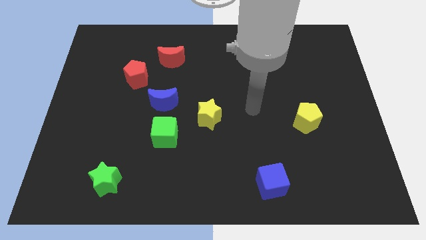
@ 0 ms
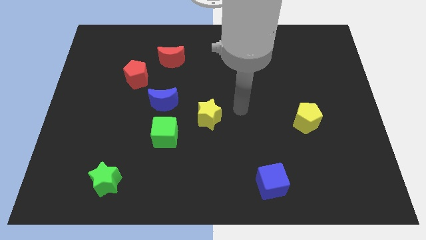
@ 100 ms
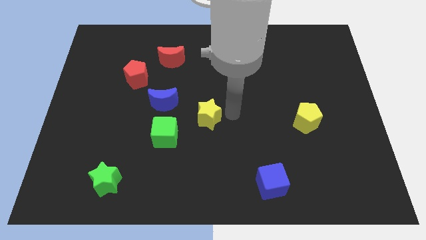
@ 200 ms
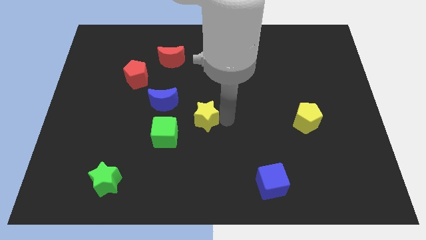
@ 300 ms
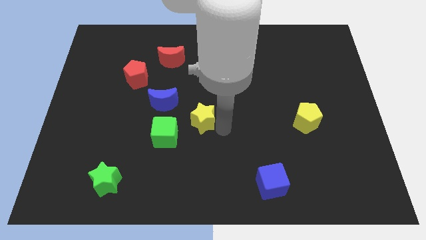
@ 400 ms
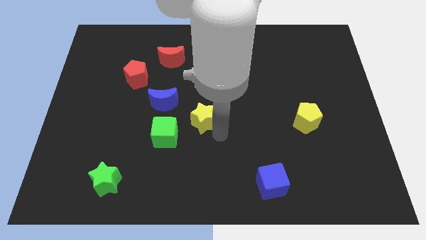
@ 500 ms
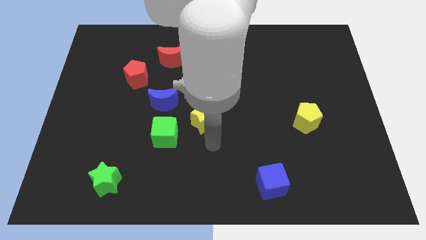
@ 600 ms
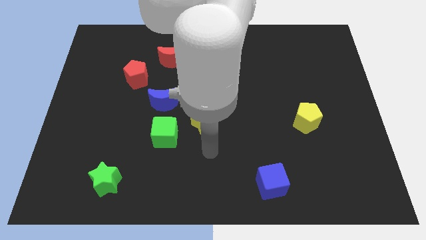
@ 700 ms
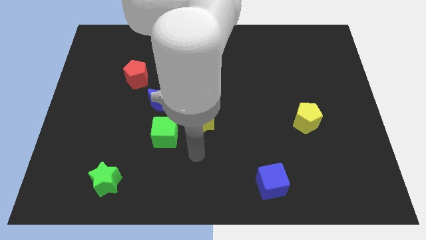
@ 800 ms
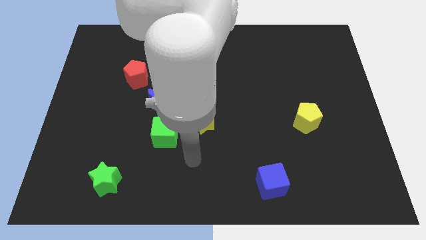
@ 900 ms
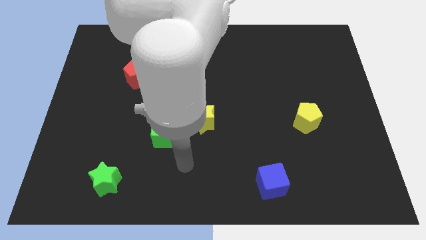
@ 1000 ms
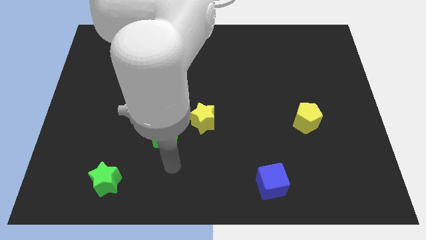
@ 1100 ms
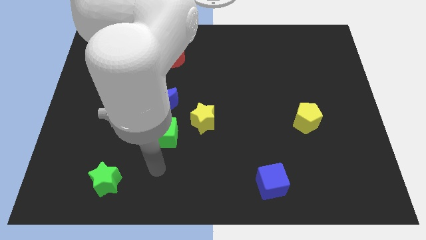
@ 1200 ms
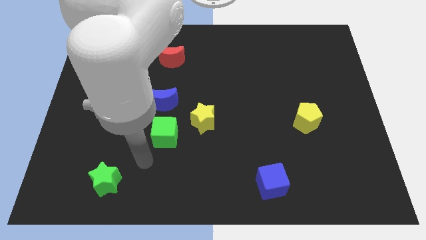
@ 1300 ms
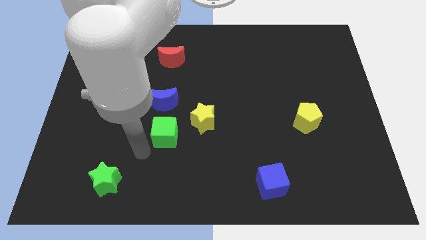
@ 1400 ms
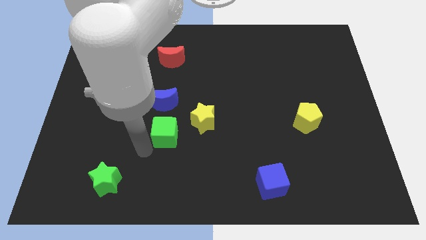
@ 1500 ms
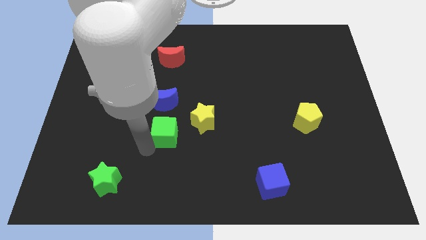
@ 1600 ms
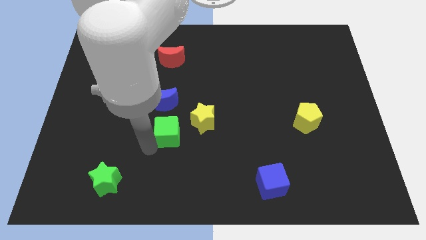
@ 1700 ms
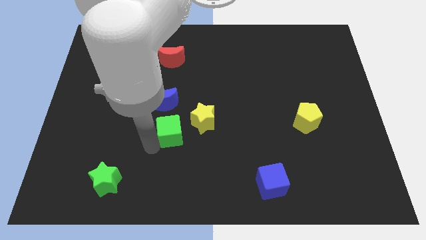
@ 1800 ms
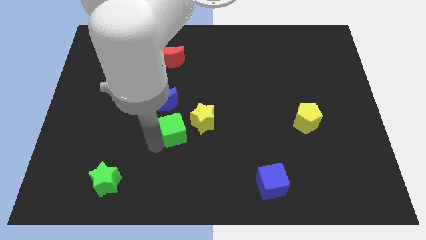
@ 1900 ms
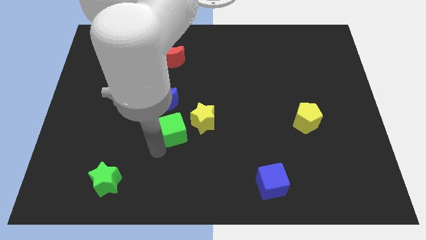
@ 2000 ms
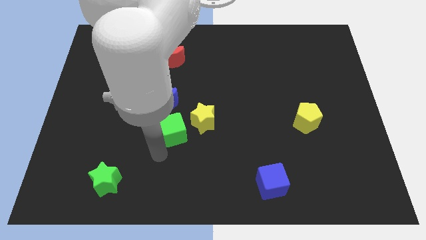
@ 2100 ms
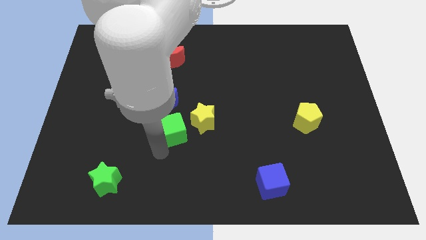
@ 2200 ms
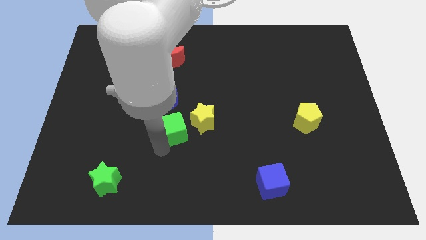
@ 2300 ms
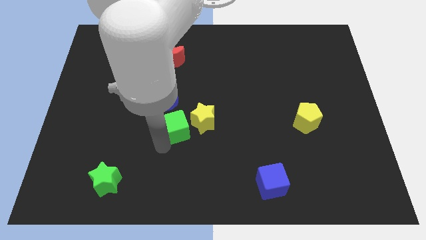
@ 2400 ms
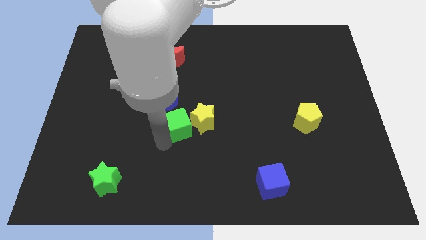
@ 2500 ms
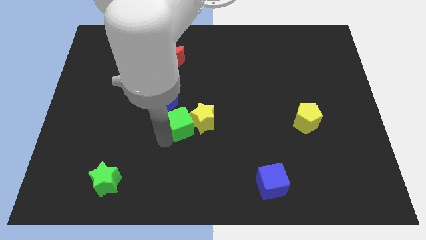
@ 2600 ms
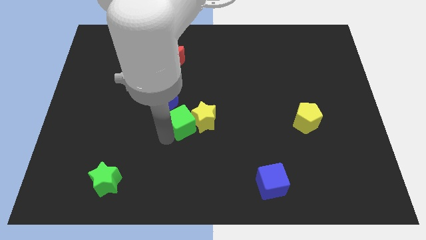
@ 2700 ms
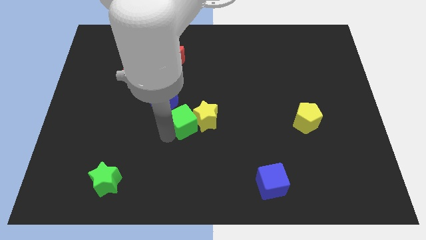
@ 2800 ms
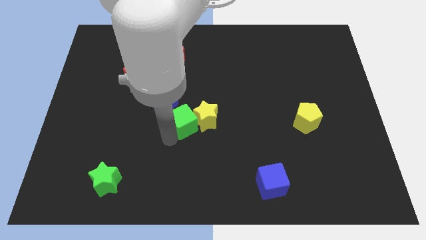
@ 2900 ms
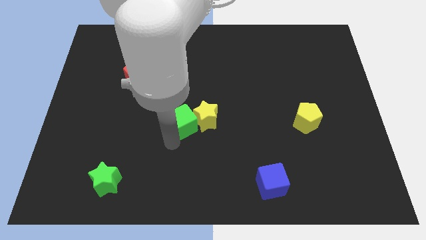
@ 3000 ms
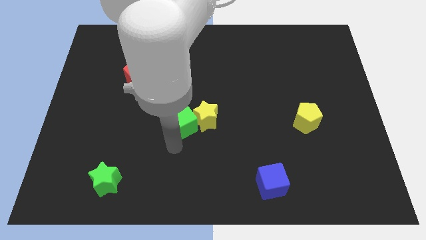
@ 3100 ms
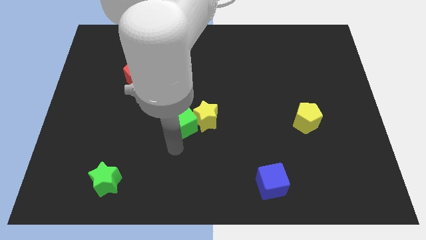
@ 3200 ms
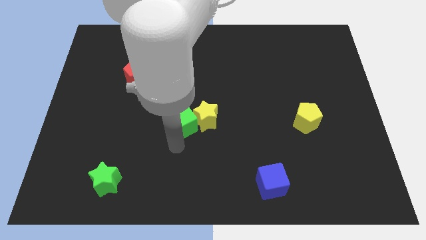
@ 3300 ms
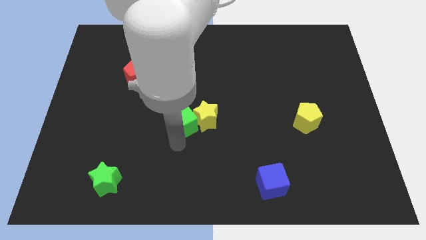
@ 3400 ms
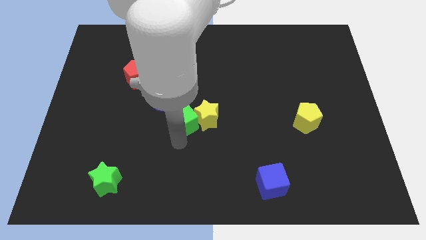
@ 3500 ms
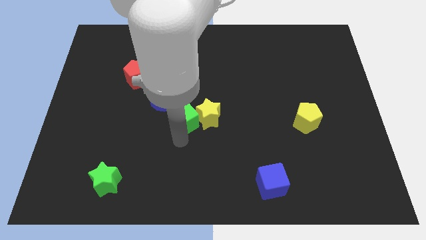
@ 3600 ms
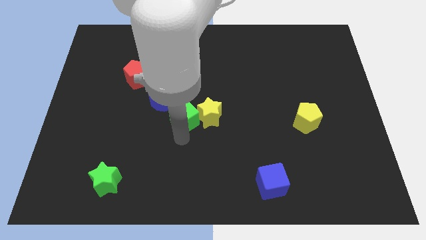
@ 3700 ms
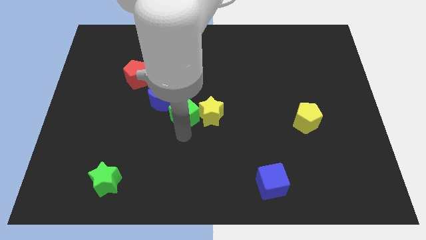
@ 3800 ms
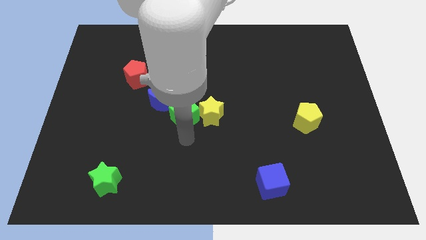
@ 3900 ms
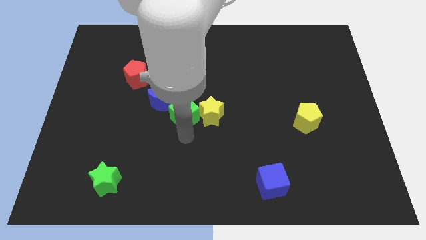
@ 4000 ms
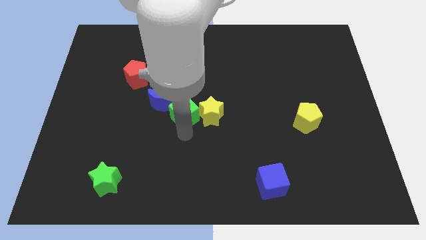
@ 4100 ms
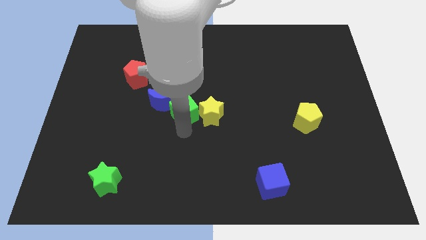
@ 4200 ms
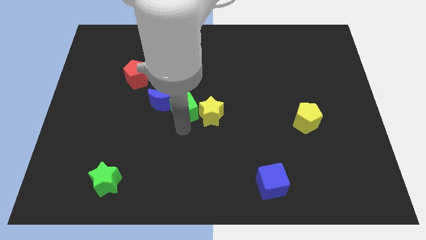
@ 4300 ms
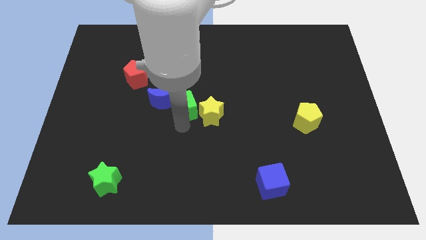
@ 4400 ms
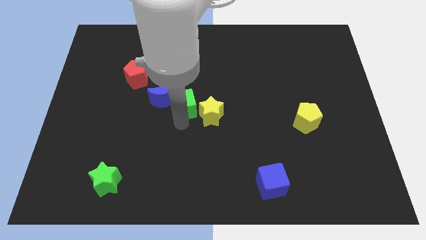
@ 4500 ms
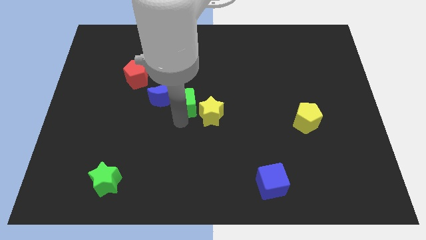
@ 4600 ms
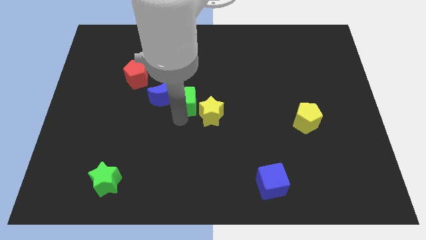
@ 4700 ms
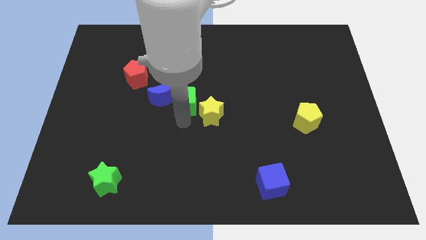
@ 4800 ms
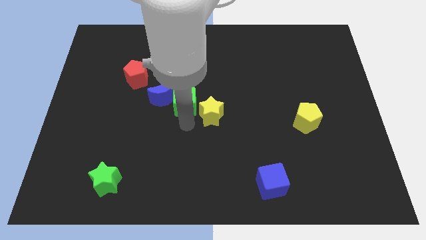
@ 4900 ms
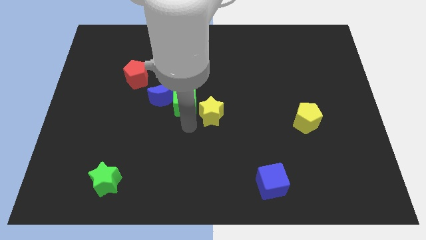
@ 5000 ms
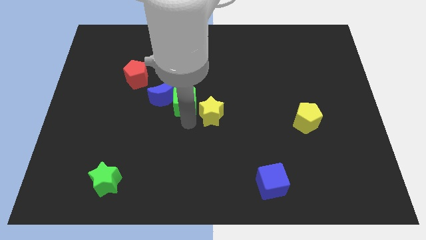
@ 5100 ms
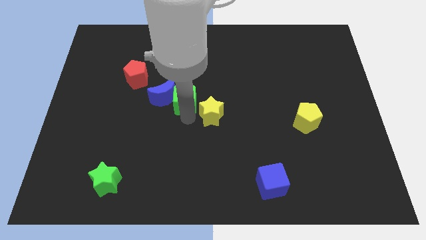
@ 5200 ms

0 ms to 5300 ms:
push the green cube below the red moon

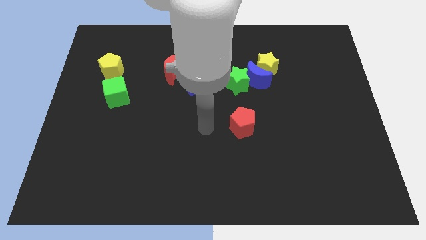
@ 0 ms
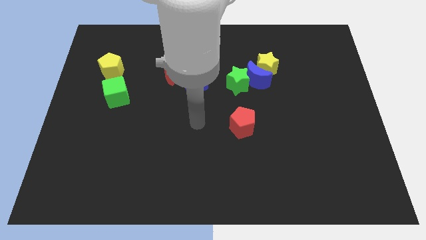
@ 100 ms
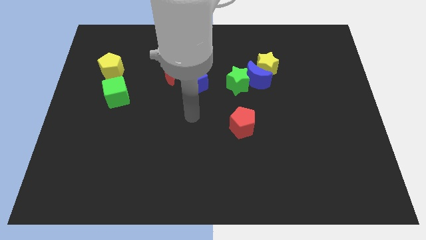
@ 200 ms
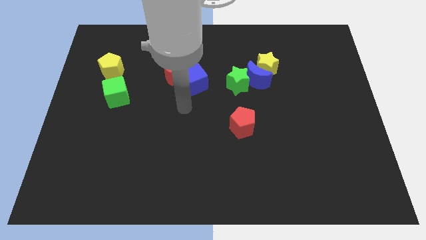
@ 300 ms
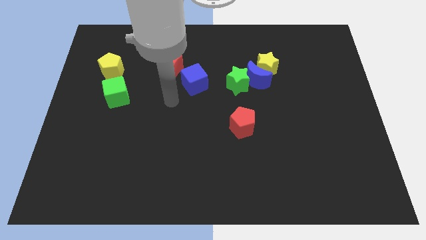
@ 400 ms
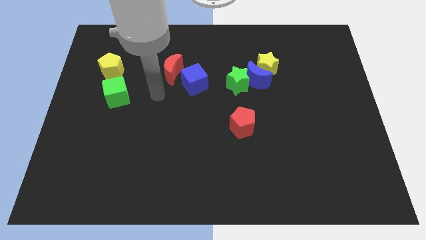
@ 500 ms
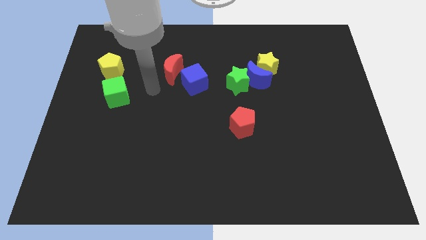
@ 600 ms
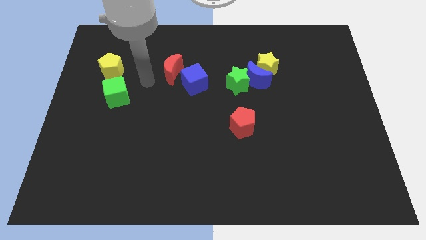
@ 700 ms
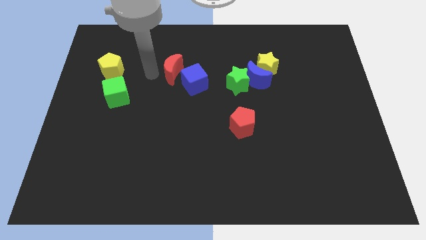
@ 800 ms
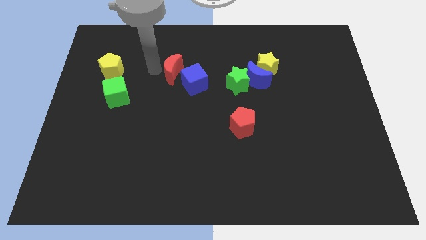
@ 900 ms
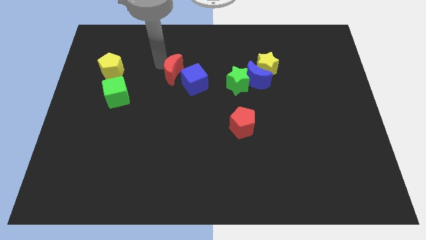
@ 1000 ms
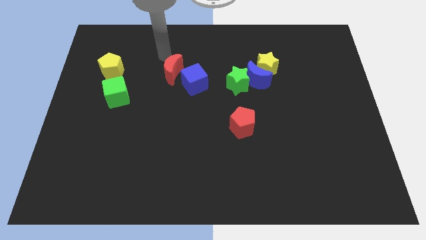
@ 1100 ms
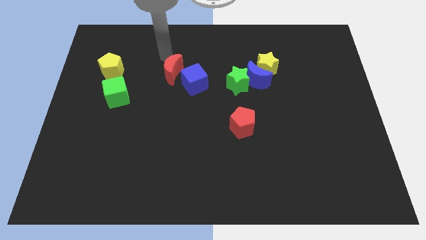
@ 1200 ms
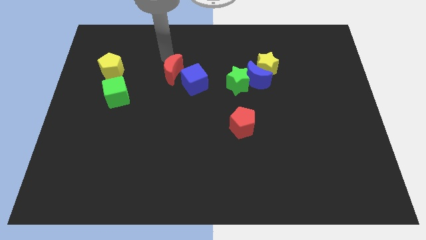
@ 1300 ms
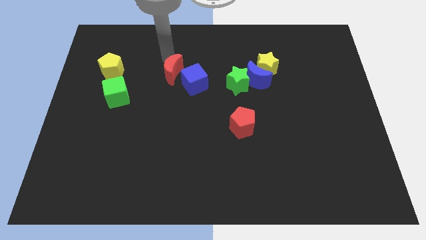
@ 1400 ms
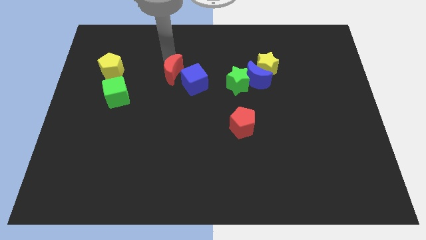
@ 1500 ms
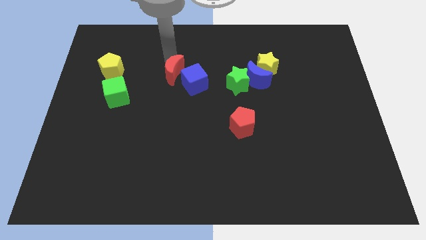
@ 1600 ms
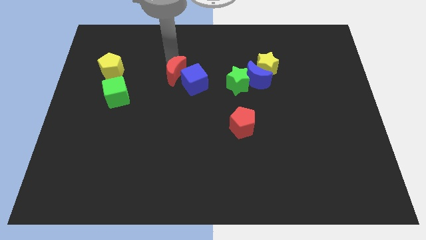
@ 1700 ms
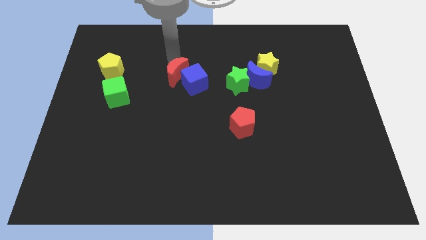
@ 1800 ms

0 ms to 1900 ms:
push the red moon just left of the green star
